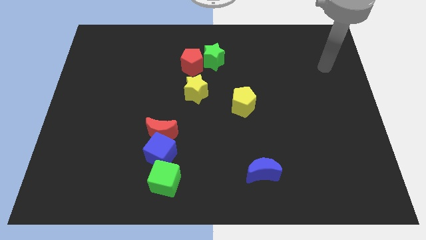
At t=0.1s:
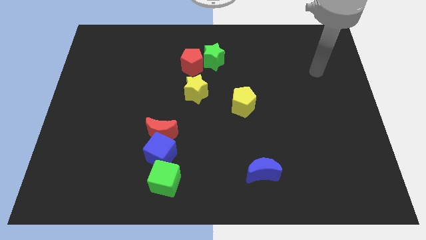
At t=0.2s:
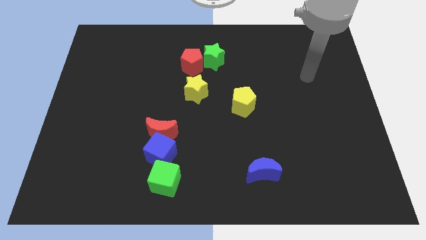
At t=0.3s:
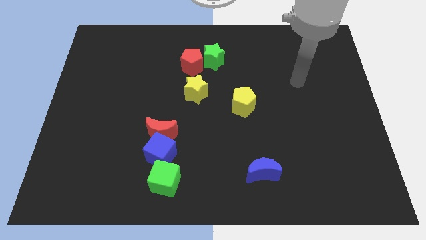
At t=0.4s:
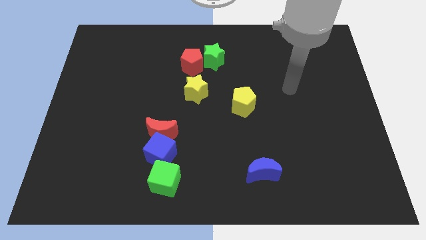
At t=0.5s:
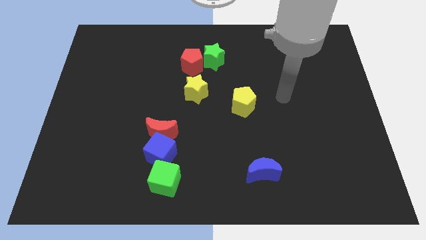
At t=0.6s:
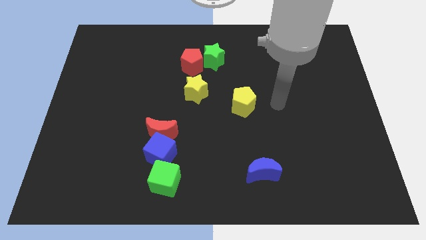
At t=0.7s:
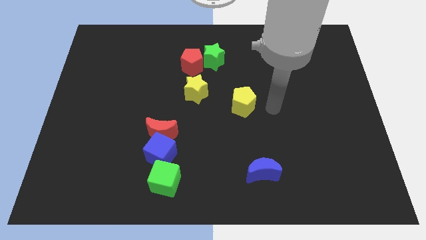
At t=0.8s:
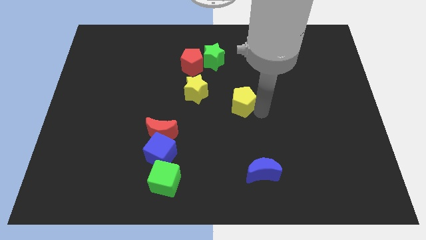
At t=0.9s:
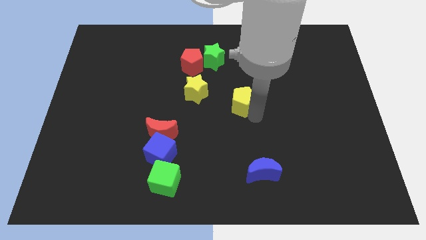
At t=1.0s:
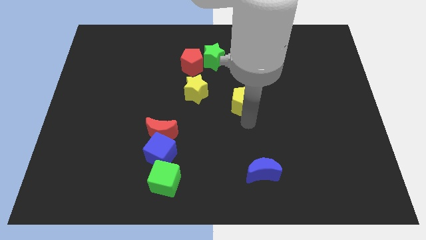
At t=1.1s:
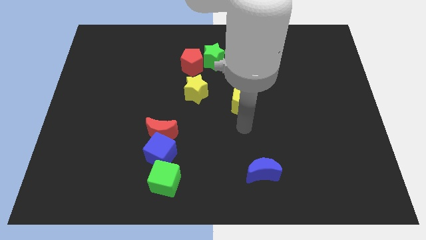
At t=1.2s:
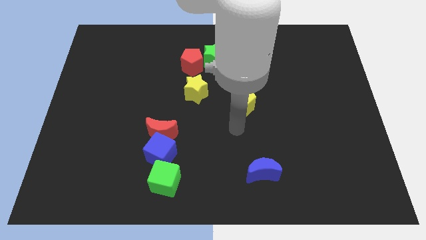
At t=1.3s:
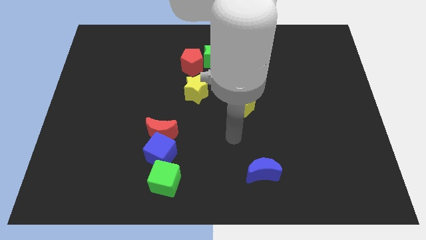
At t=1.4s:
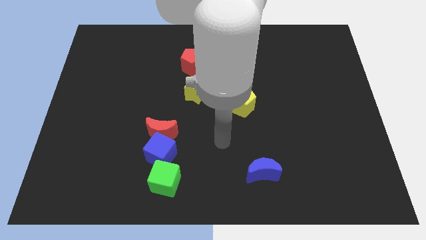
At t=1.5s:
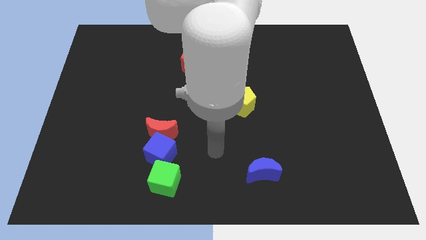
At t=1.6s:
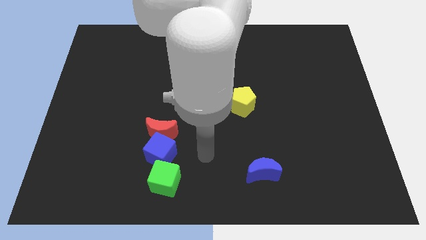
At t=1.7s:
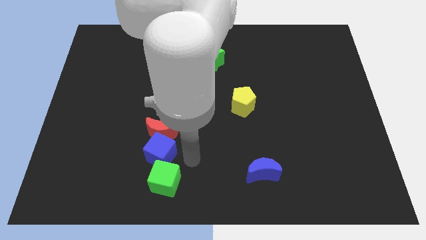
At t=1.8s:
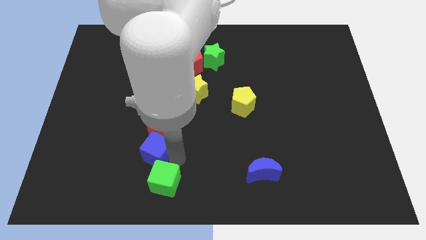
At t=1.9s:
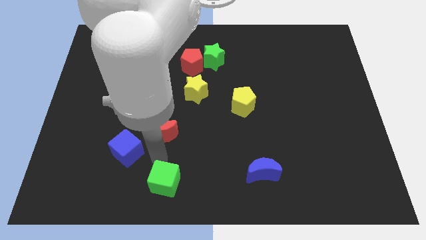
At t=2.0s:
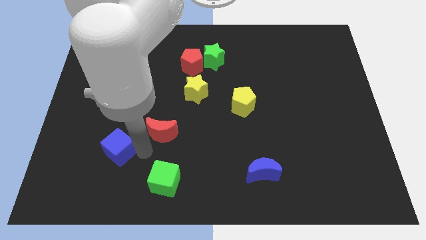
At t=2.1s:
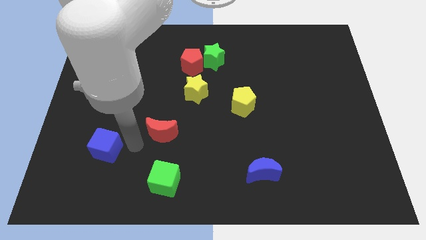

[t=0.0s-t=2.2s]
pull the red moon apart from the blue cube

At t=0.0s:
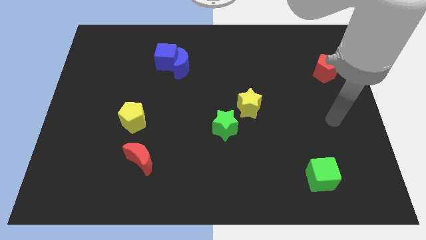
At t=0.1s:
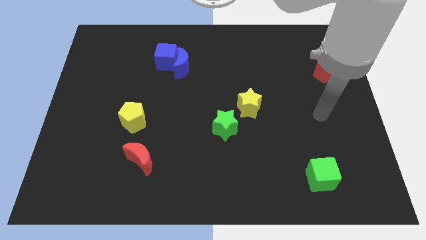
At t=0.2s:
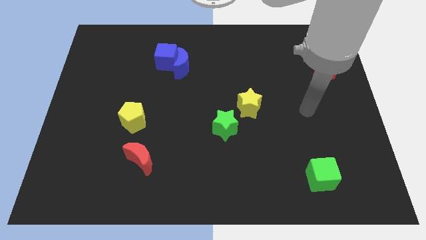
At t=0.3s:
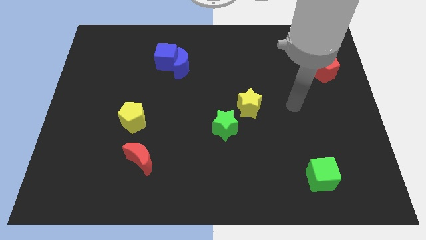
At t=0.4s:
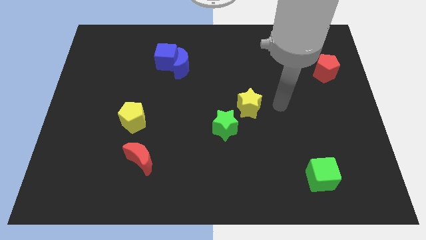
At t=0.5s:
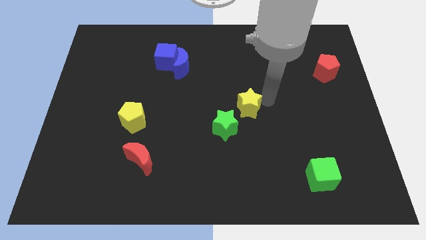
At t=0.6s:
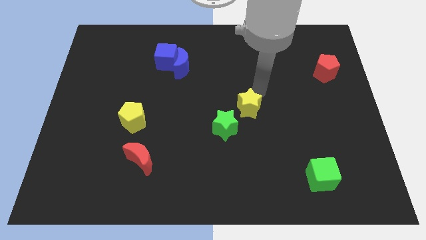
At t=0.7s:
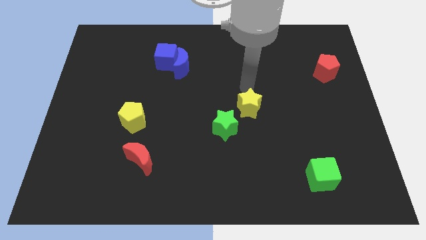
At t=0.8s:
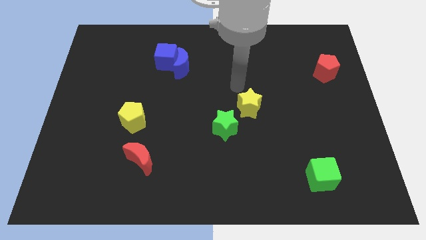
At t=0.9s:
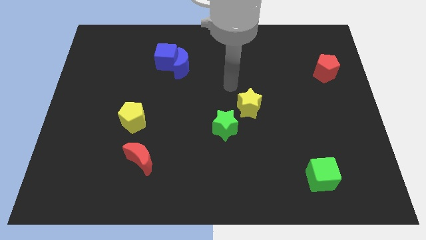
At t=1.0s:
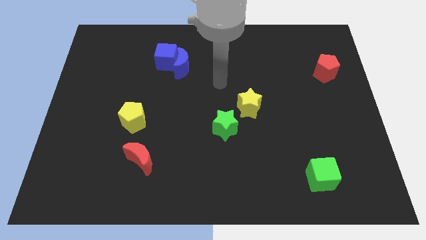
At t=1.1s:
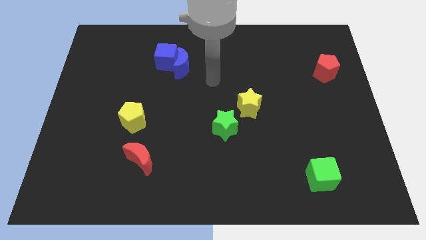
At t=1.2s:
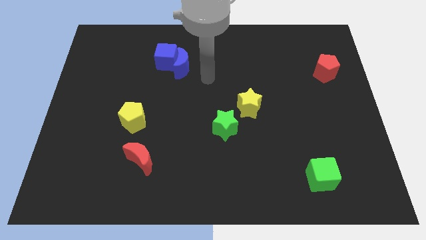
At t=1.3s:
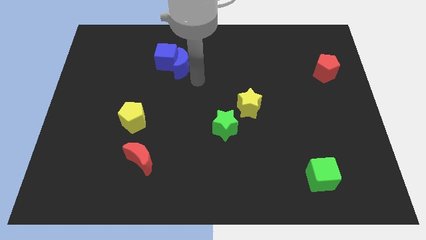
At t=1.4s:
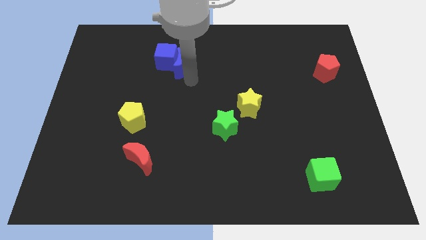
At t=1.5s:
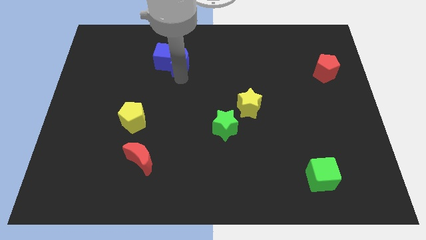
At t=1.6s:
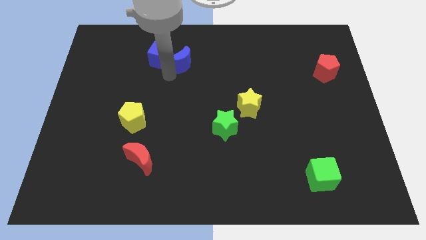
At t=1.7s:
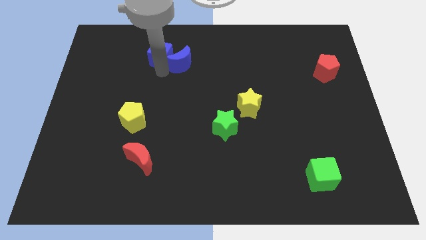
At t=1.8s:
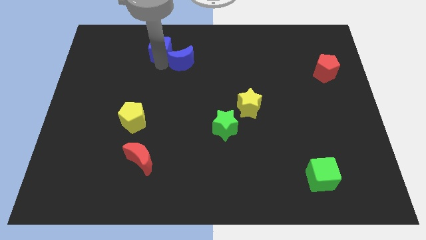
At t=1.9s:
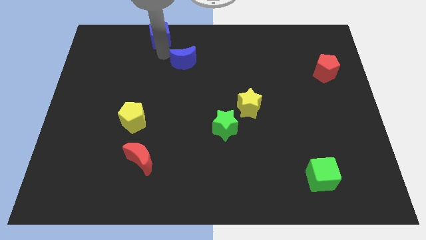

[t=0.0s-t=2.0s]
move the blue moon away from the blue cube

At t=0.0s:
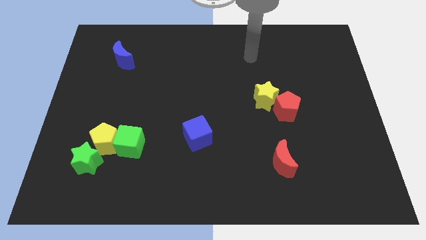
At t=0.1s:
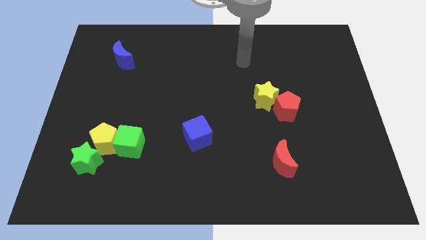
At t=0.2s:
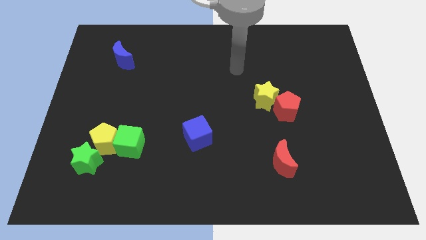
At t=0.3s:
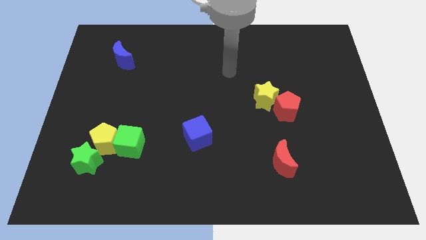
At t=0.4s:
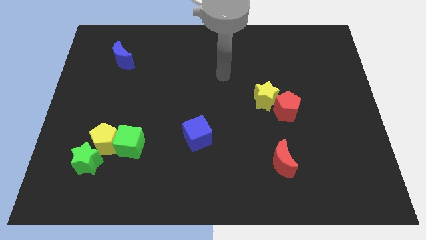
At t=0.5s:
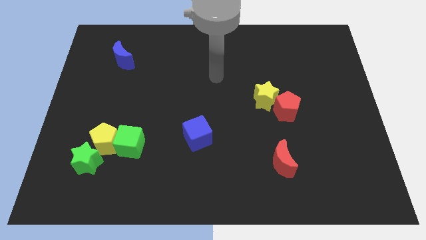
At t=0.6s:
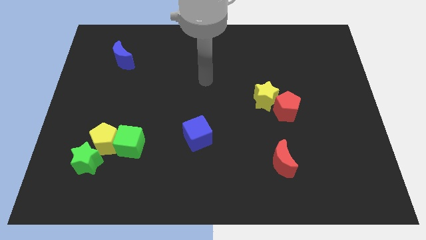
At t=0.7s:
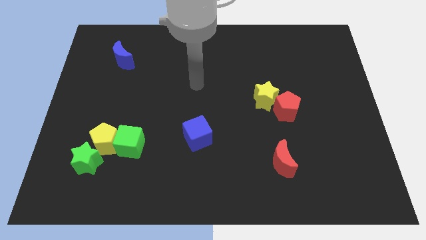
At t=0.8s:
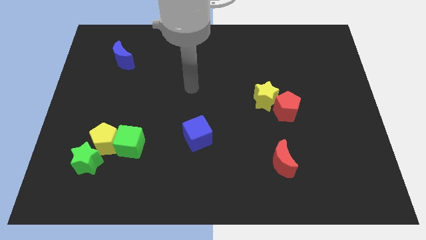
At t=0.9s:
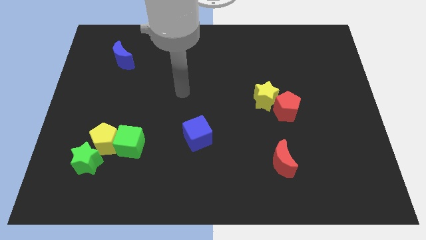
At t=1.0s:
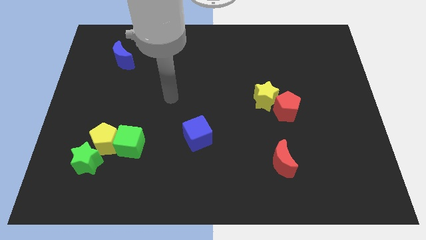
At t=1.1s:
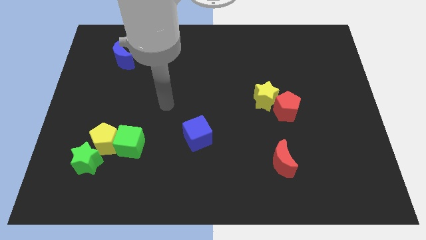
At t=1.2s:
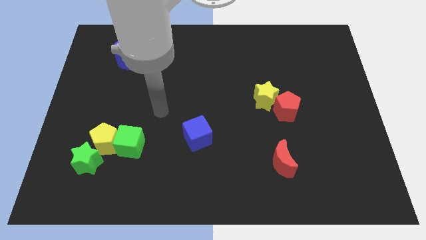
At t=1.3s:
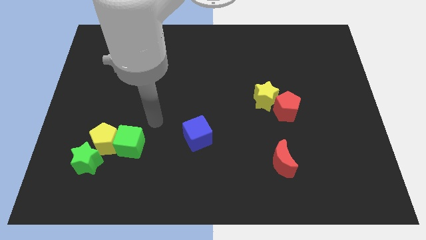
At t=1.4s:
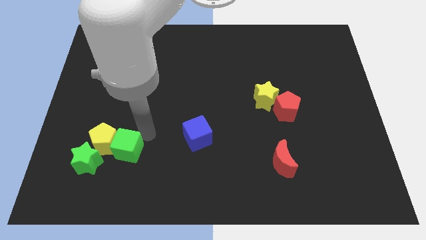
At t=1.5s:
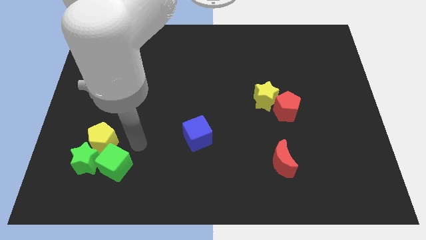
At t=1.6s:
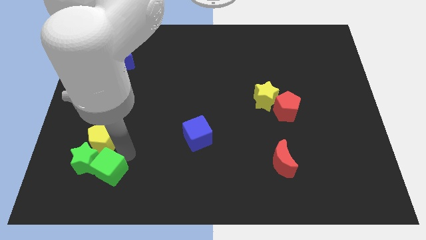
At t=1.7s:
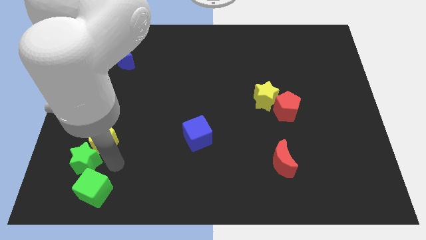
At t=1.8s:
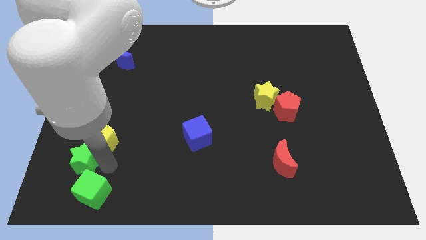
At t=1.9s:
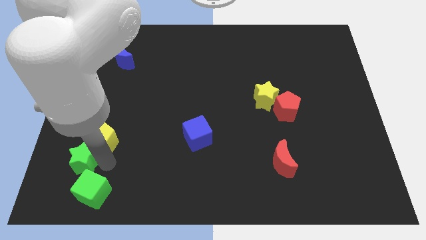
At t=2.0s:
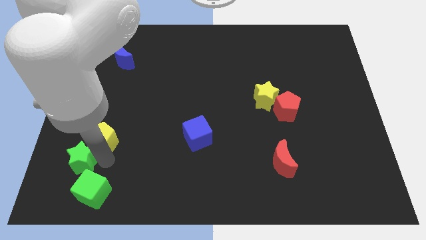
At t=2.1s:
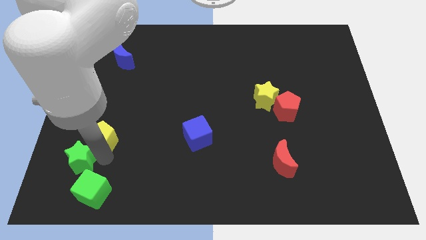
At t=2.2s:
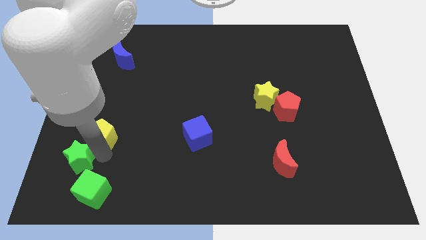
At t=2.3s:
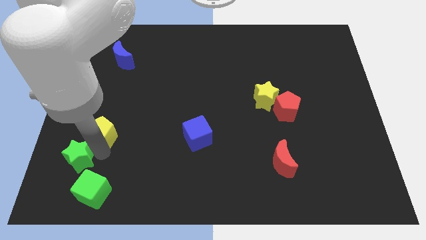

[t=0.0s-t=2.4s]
move the yellow pentagon away from the green cube and green star

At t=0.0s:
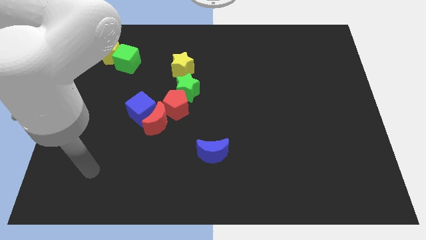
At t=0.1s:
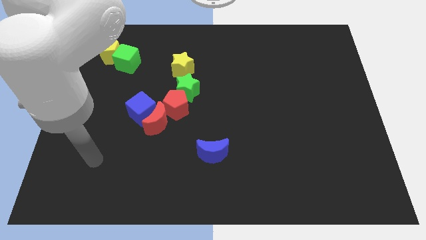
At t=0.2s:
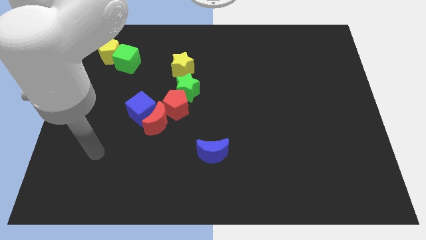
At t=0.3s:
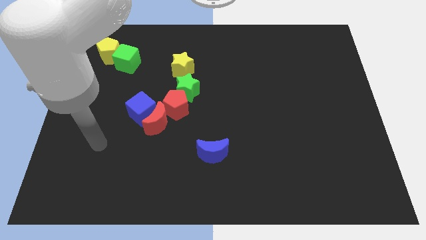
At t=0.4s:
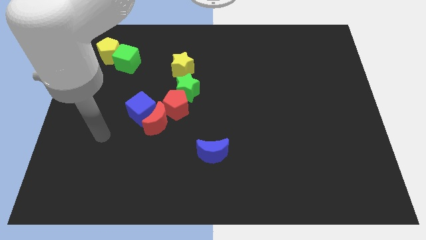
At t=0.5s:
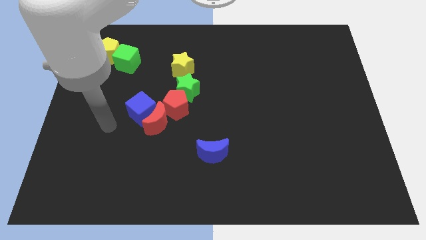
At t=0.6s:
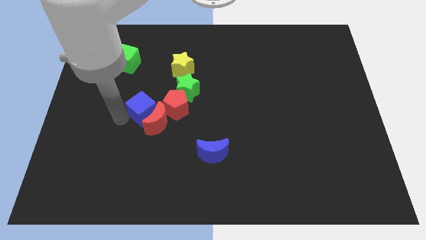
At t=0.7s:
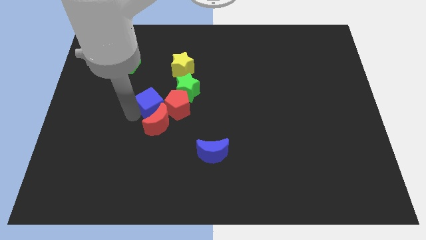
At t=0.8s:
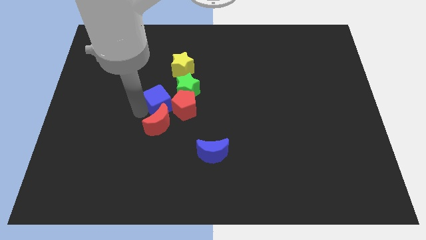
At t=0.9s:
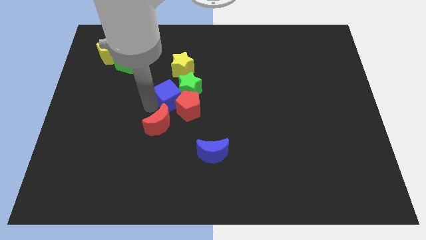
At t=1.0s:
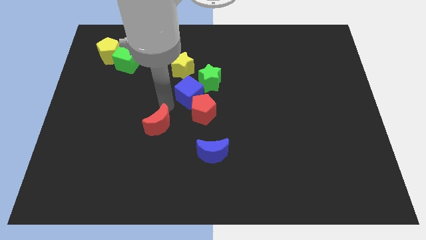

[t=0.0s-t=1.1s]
pull the red moon apart from the blue cube and red pentagon

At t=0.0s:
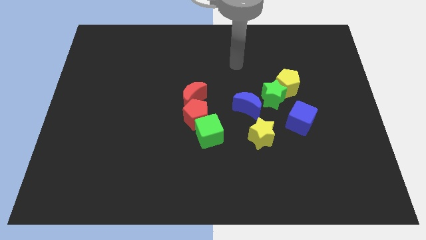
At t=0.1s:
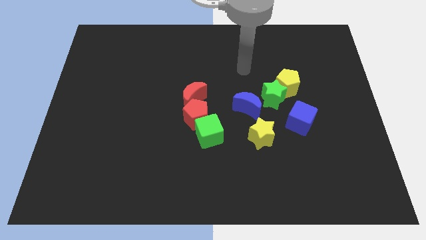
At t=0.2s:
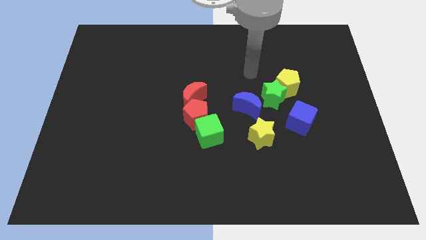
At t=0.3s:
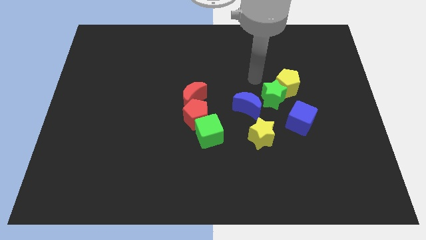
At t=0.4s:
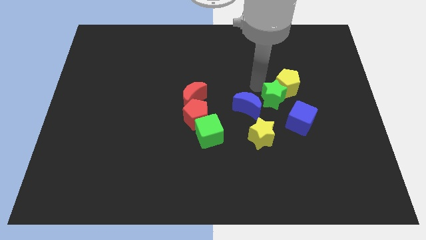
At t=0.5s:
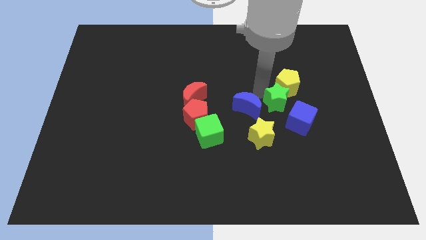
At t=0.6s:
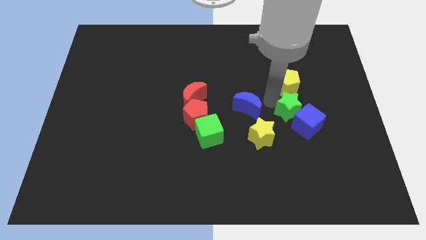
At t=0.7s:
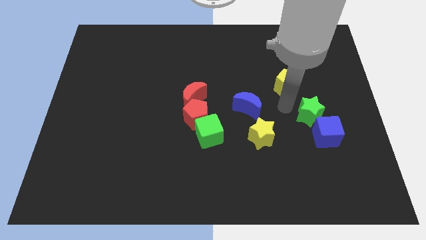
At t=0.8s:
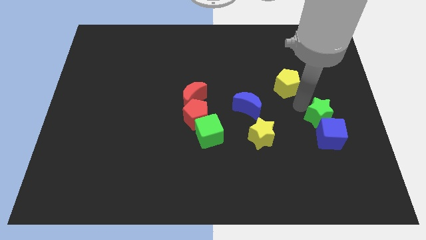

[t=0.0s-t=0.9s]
move the yellow pentagon away from the green star

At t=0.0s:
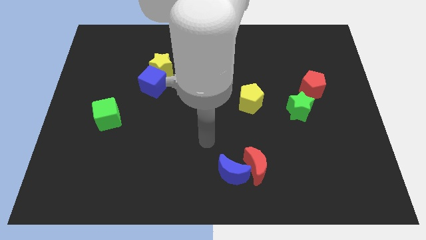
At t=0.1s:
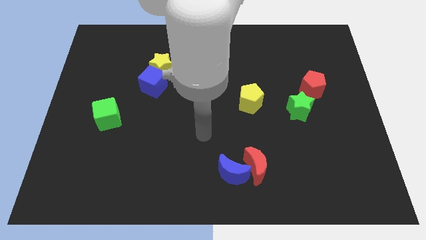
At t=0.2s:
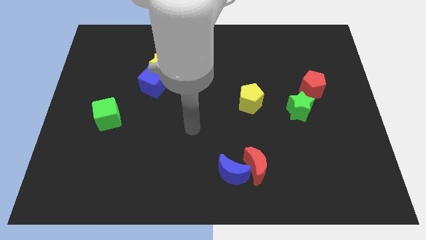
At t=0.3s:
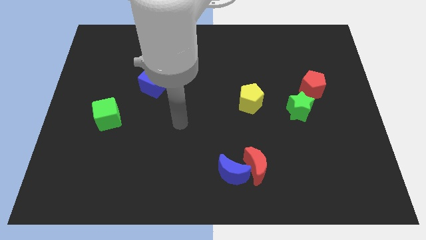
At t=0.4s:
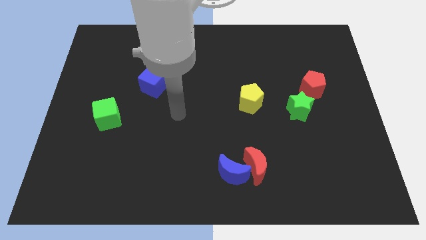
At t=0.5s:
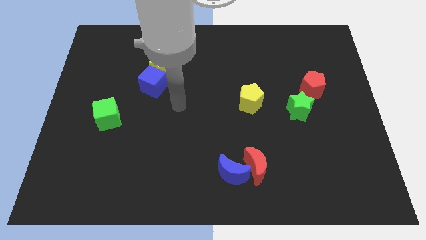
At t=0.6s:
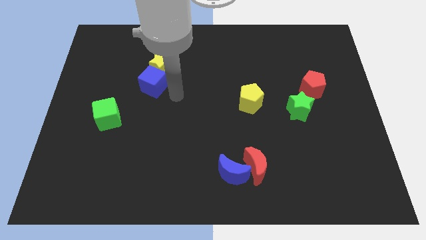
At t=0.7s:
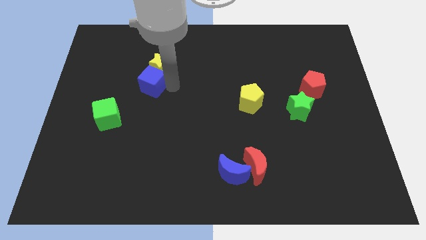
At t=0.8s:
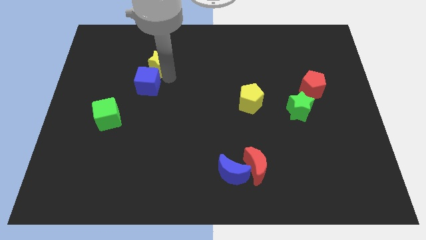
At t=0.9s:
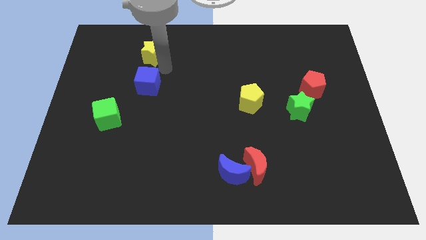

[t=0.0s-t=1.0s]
move the blue cube away from the yellow star
